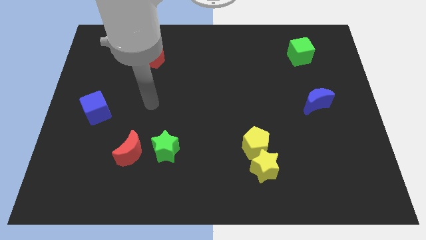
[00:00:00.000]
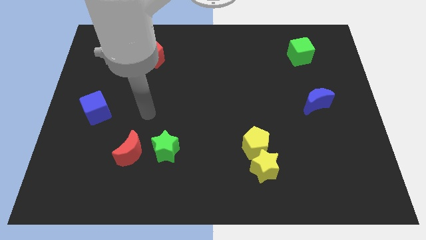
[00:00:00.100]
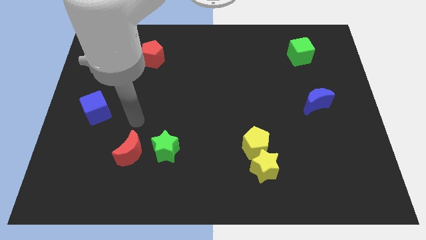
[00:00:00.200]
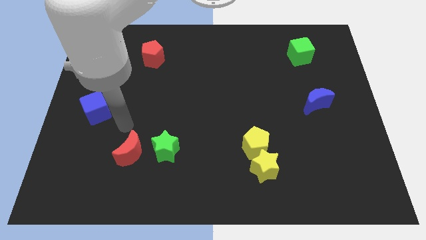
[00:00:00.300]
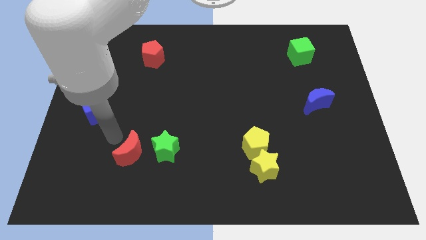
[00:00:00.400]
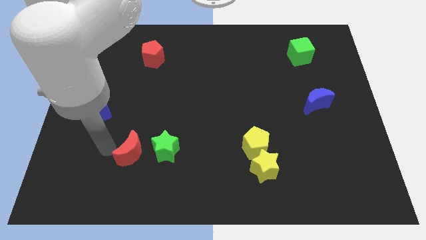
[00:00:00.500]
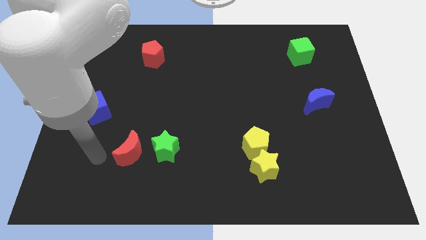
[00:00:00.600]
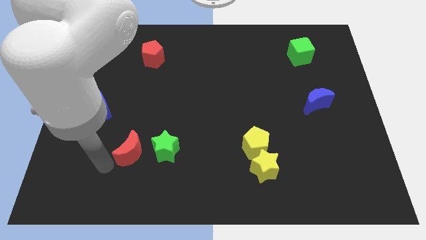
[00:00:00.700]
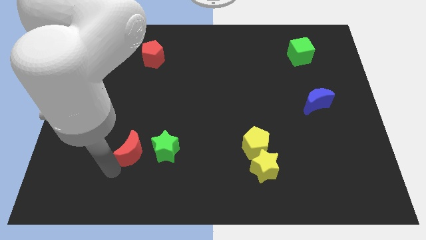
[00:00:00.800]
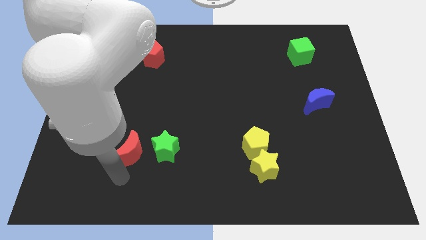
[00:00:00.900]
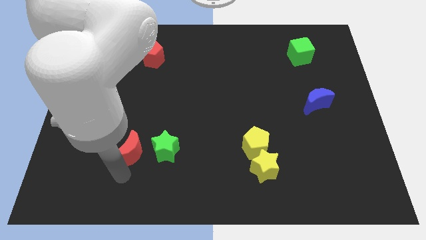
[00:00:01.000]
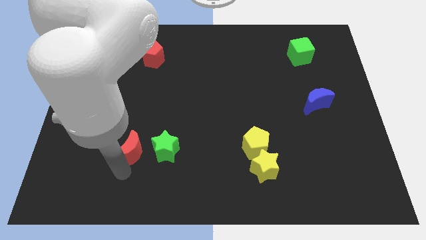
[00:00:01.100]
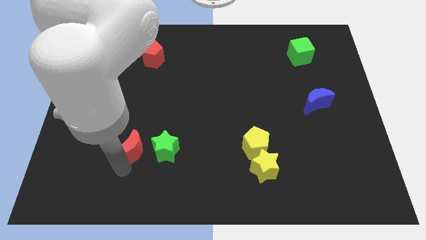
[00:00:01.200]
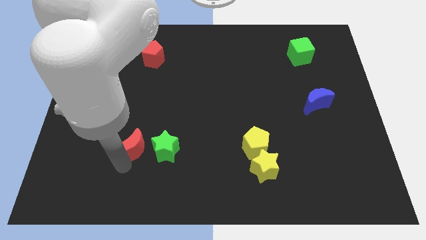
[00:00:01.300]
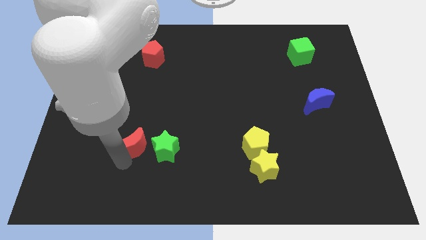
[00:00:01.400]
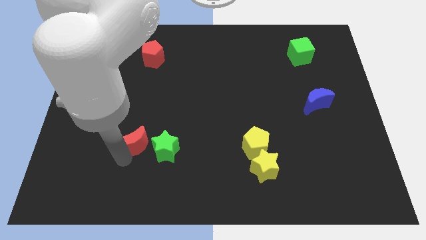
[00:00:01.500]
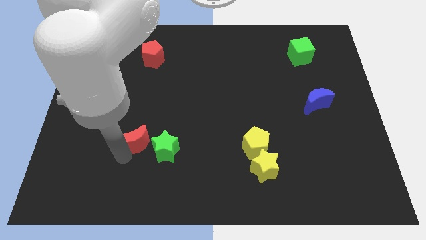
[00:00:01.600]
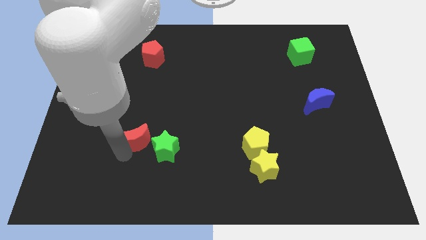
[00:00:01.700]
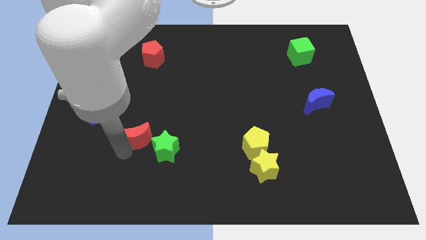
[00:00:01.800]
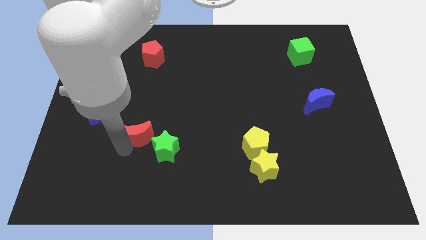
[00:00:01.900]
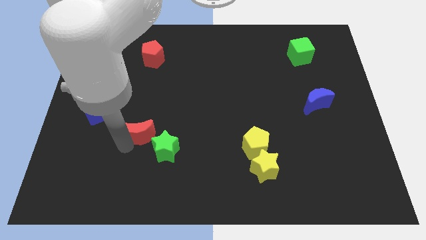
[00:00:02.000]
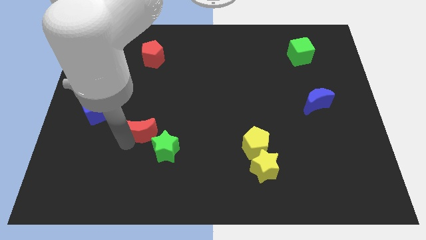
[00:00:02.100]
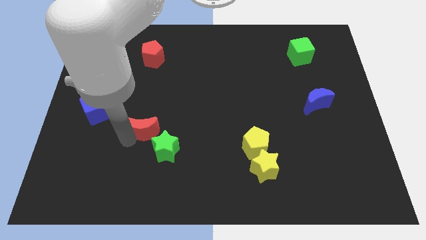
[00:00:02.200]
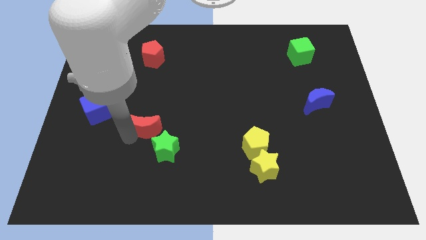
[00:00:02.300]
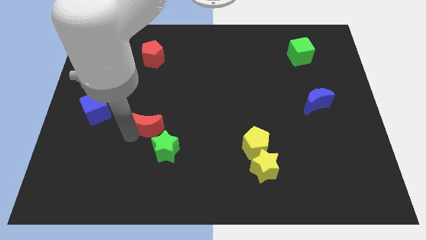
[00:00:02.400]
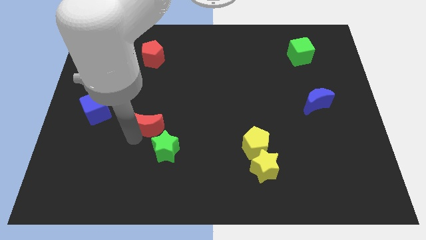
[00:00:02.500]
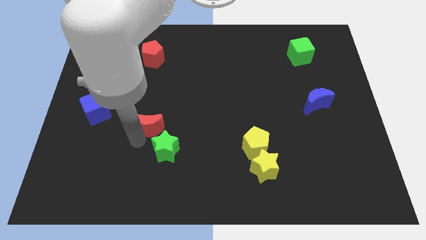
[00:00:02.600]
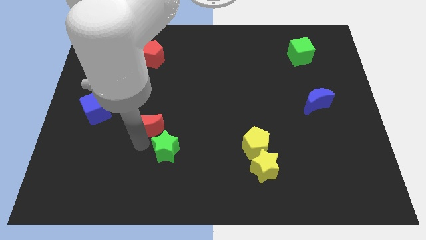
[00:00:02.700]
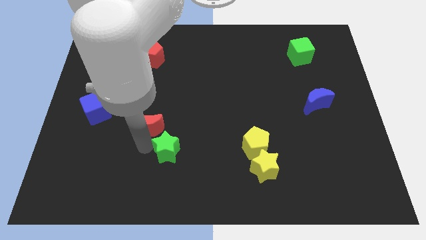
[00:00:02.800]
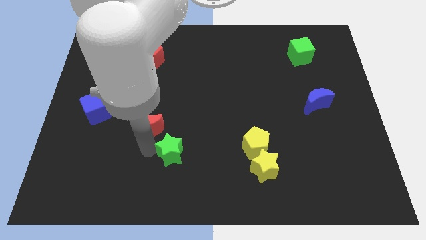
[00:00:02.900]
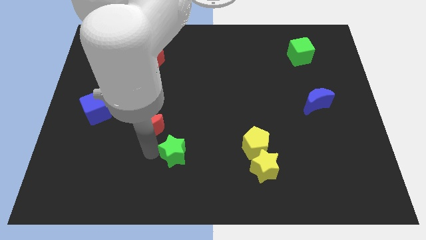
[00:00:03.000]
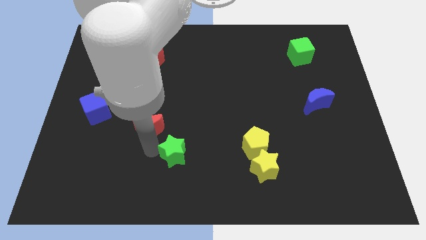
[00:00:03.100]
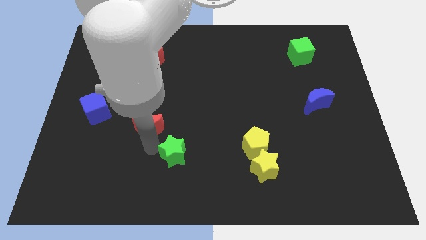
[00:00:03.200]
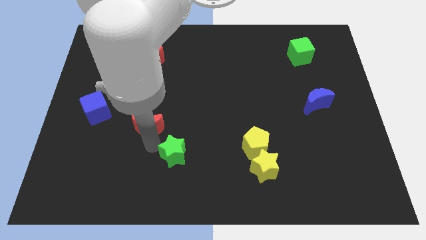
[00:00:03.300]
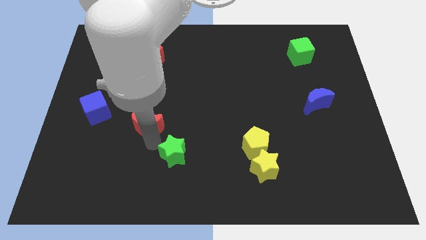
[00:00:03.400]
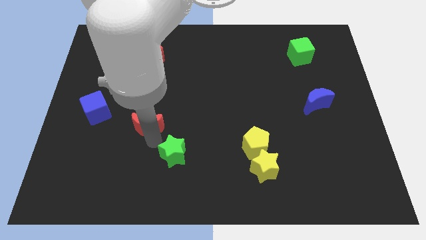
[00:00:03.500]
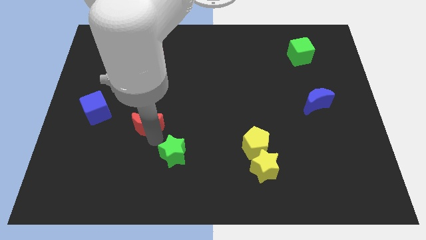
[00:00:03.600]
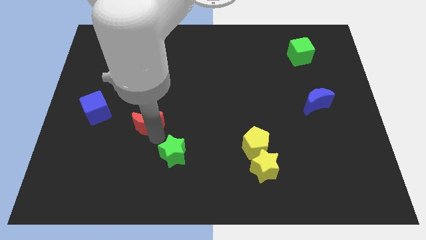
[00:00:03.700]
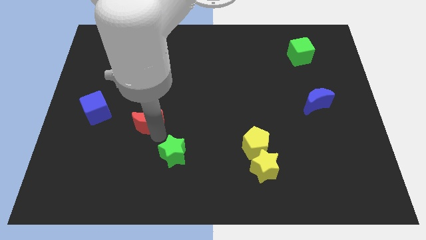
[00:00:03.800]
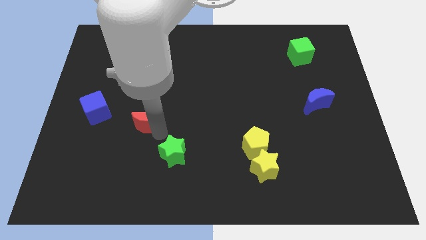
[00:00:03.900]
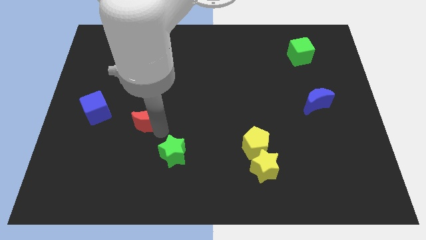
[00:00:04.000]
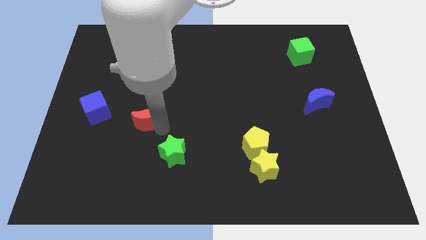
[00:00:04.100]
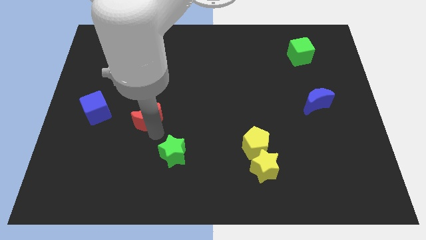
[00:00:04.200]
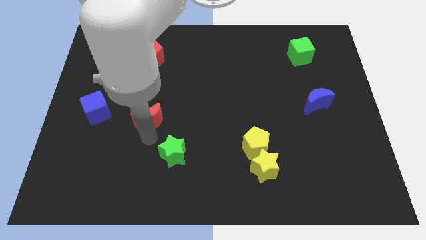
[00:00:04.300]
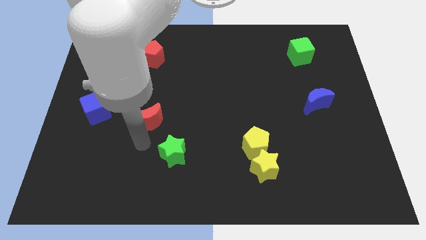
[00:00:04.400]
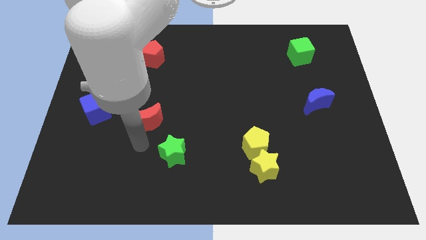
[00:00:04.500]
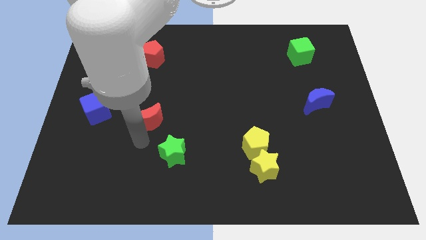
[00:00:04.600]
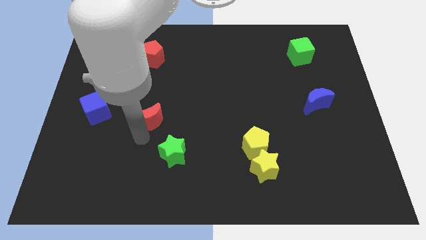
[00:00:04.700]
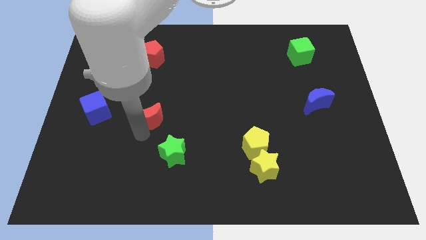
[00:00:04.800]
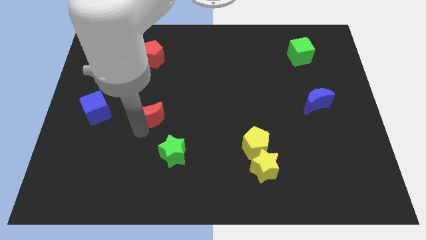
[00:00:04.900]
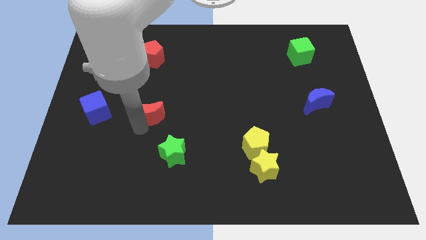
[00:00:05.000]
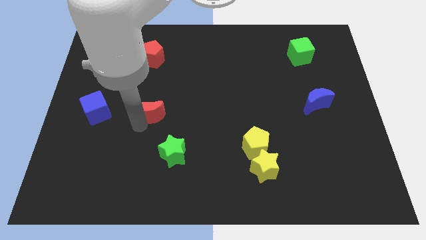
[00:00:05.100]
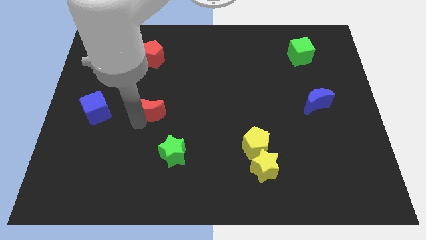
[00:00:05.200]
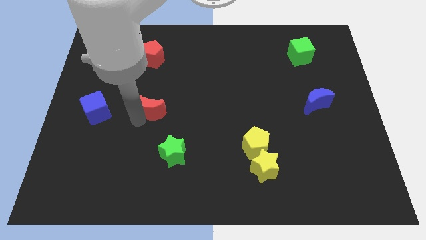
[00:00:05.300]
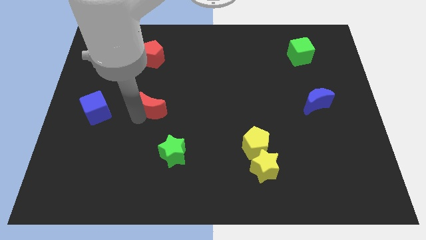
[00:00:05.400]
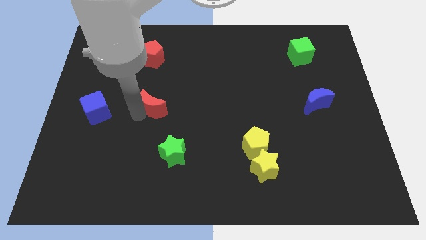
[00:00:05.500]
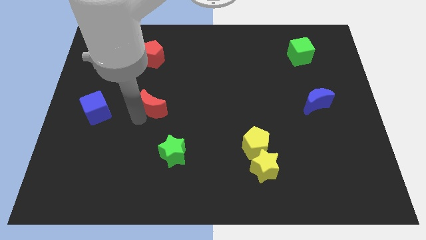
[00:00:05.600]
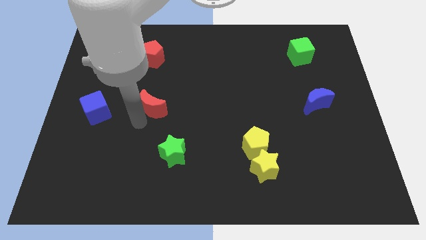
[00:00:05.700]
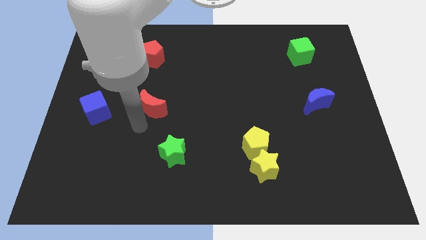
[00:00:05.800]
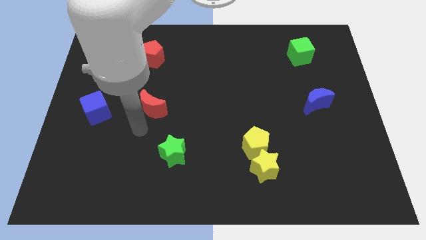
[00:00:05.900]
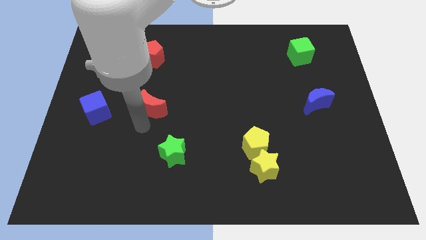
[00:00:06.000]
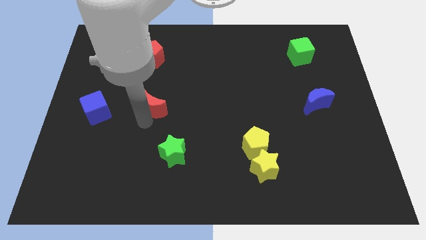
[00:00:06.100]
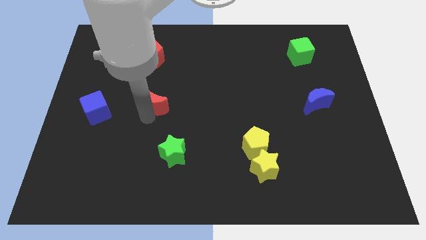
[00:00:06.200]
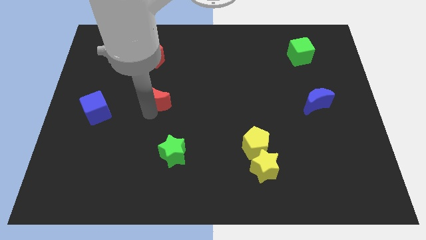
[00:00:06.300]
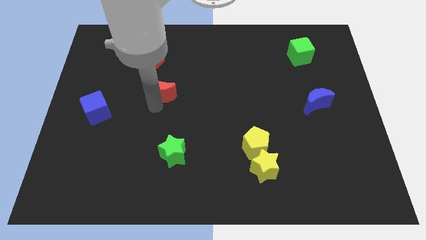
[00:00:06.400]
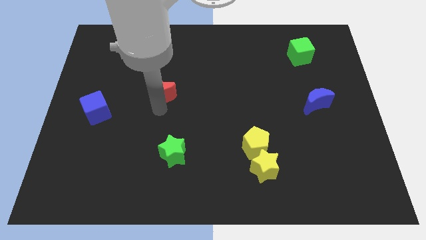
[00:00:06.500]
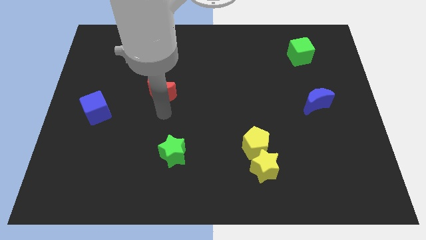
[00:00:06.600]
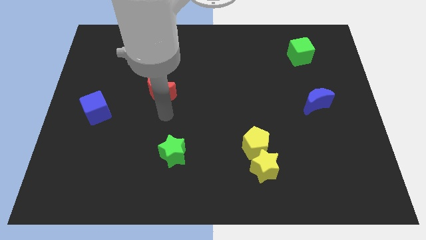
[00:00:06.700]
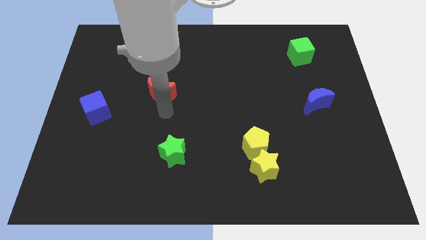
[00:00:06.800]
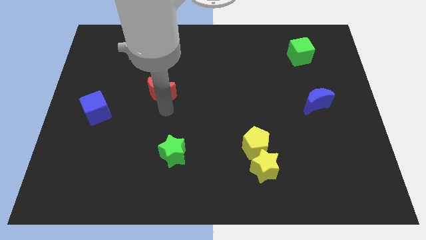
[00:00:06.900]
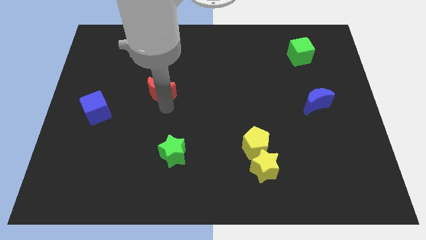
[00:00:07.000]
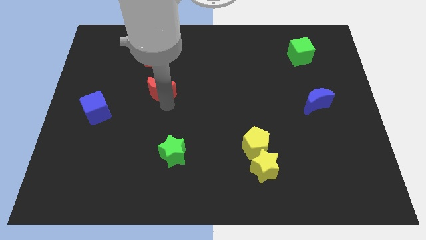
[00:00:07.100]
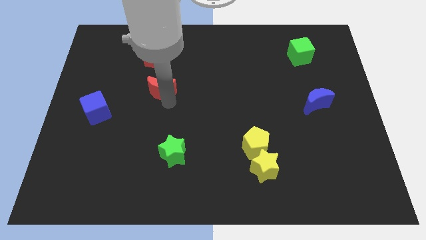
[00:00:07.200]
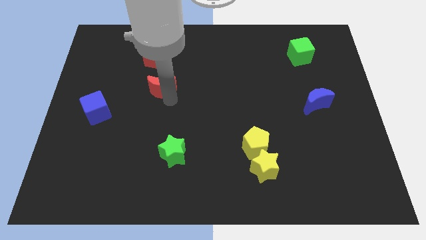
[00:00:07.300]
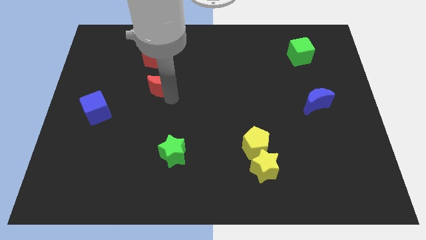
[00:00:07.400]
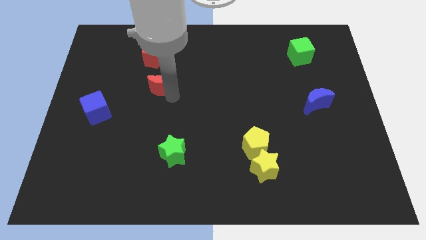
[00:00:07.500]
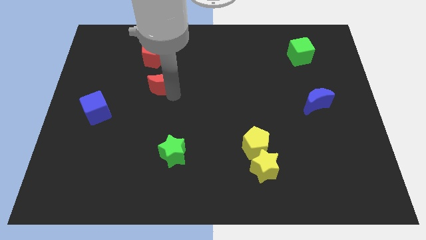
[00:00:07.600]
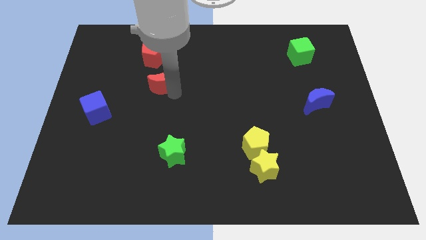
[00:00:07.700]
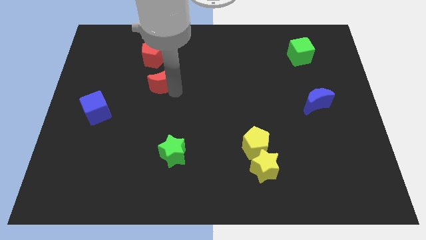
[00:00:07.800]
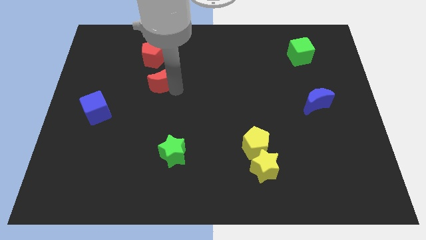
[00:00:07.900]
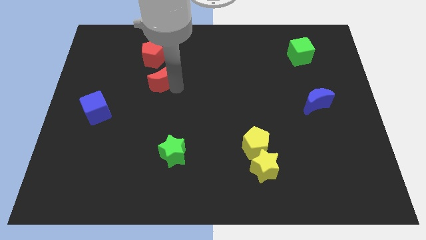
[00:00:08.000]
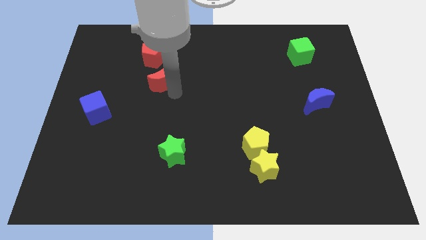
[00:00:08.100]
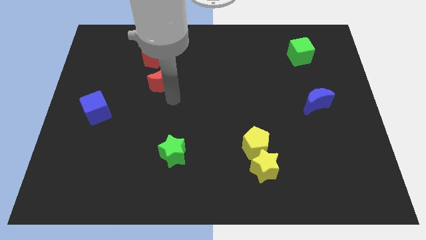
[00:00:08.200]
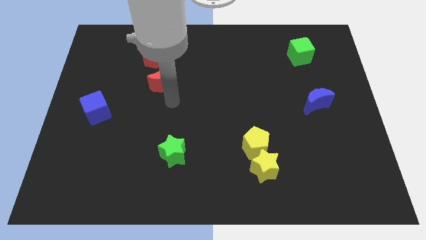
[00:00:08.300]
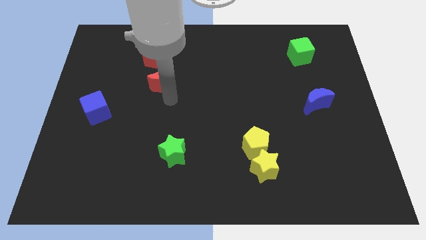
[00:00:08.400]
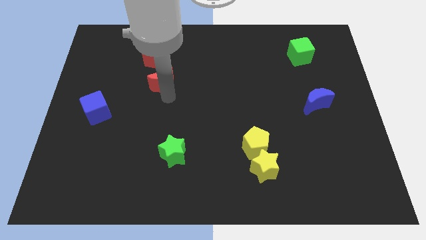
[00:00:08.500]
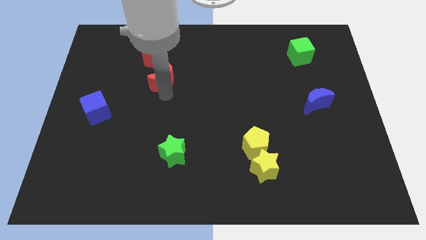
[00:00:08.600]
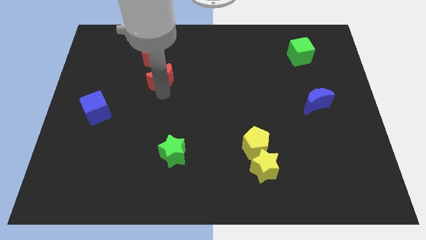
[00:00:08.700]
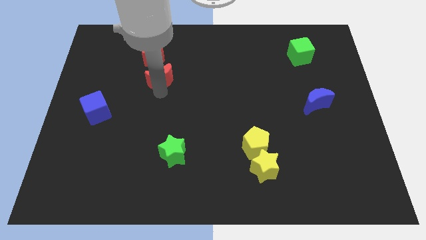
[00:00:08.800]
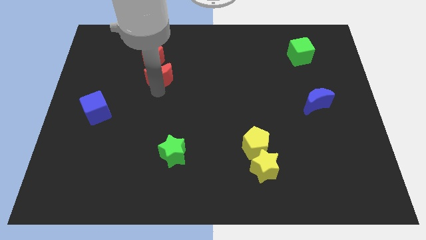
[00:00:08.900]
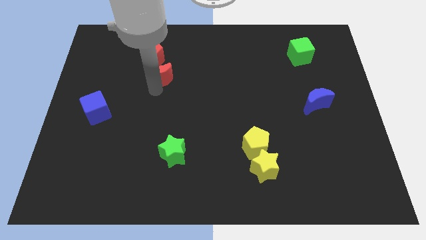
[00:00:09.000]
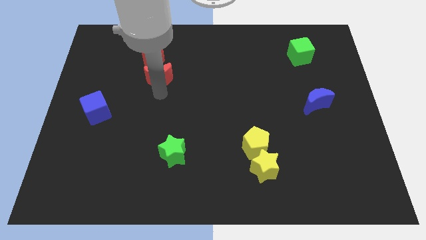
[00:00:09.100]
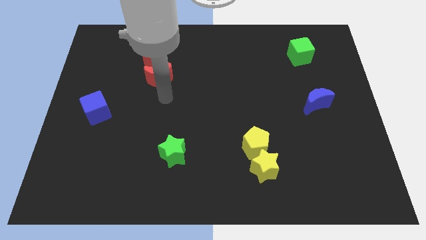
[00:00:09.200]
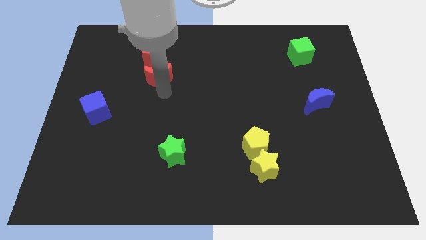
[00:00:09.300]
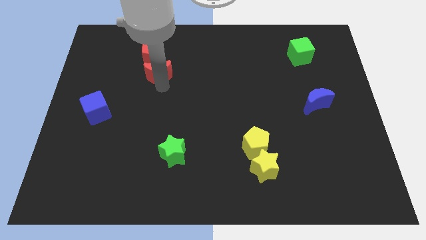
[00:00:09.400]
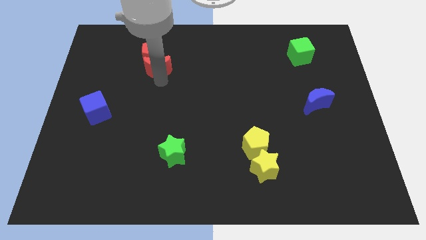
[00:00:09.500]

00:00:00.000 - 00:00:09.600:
move the red moon to the red pentagon
